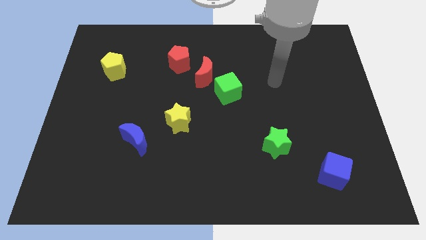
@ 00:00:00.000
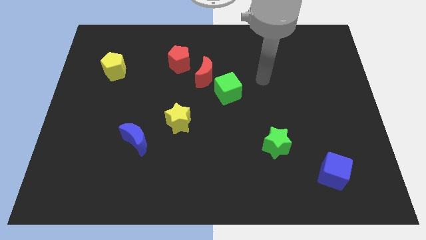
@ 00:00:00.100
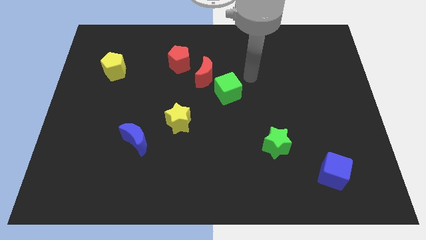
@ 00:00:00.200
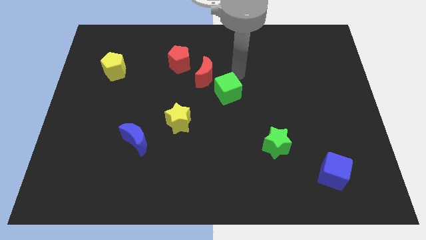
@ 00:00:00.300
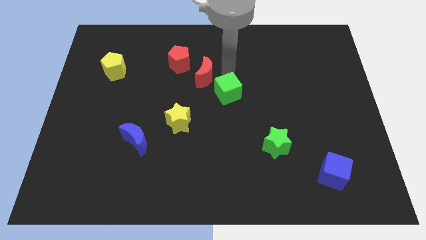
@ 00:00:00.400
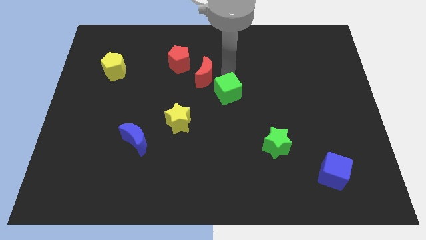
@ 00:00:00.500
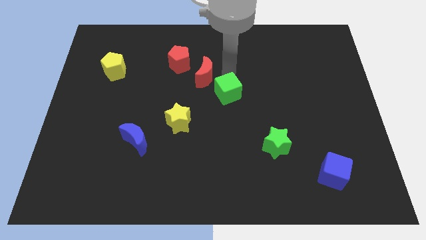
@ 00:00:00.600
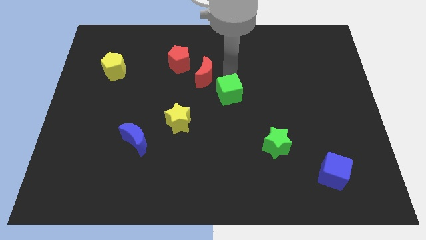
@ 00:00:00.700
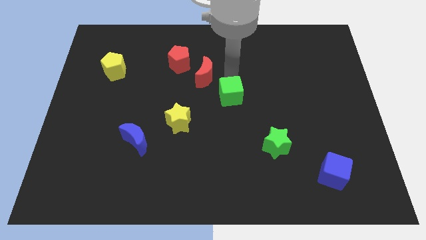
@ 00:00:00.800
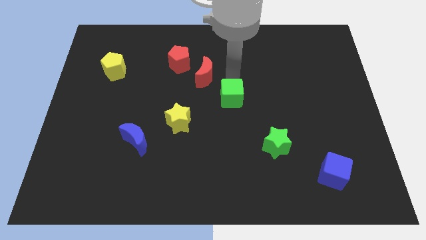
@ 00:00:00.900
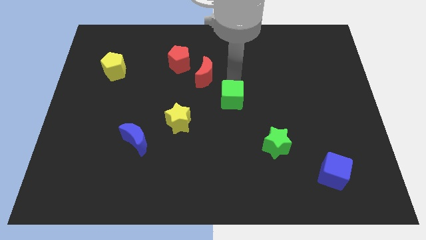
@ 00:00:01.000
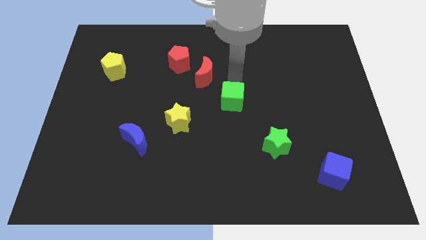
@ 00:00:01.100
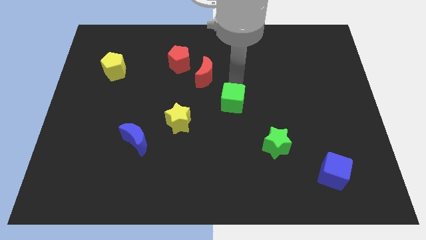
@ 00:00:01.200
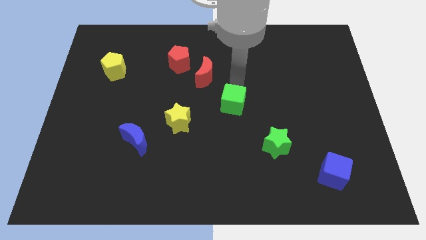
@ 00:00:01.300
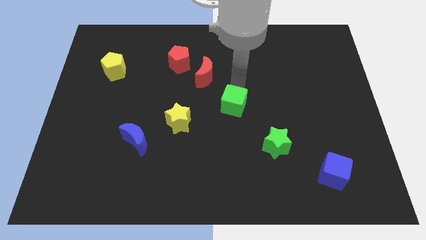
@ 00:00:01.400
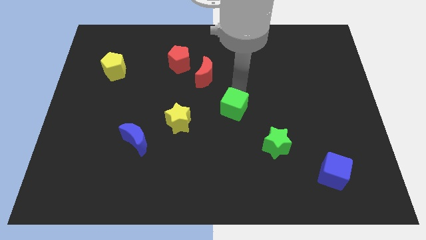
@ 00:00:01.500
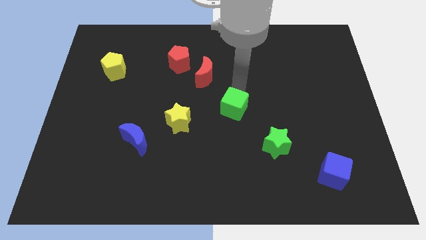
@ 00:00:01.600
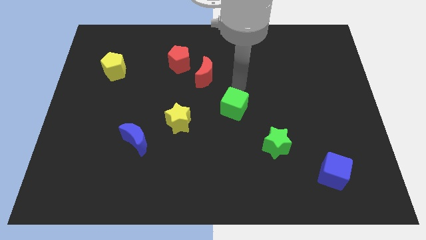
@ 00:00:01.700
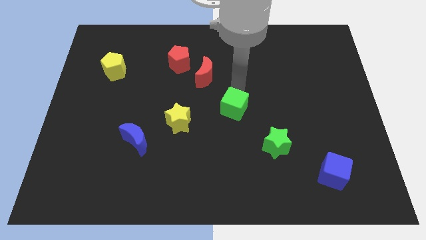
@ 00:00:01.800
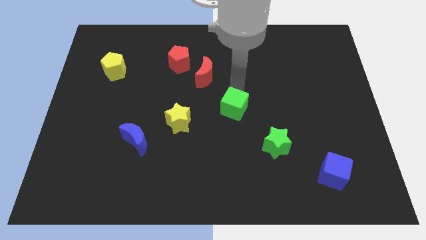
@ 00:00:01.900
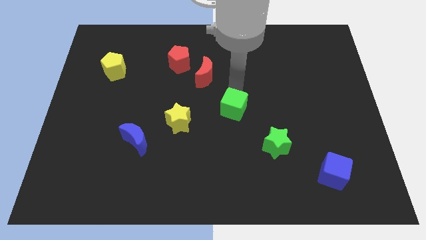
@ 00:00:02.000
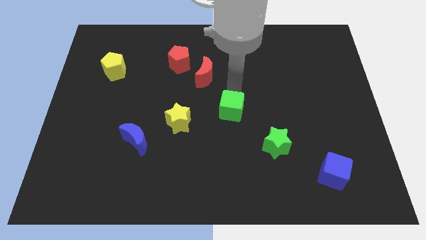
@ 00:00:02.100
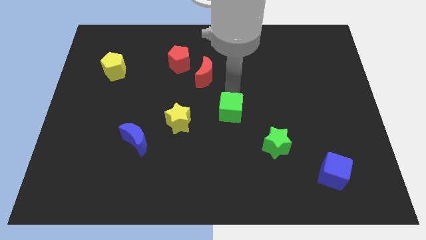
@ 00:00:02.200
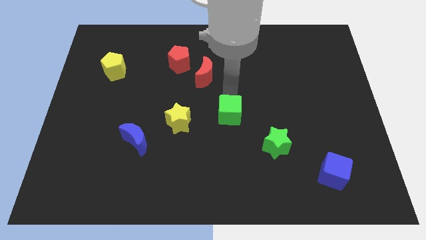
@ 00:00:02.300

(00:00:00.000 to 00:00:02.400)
move the green cube downwards a little bit

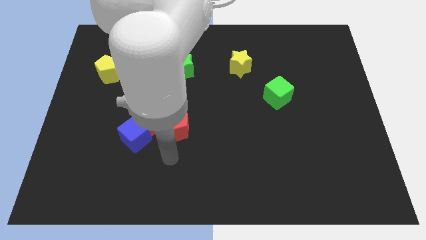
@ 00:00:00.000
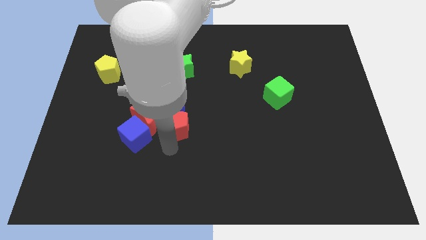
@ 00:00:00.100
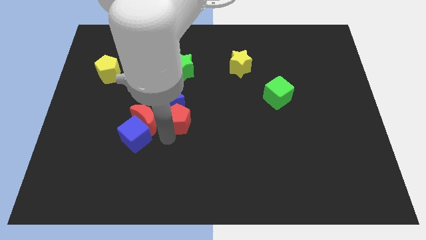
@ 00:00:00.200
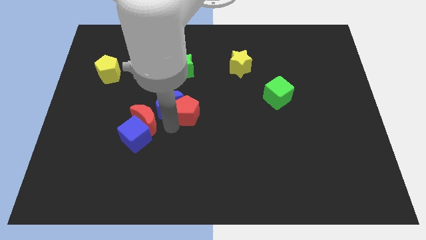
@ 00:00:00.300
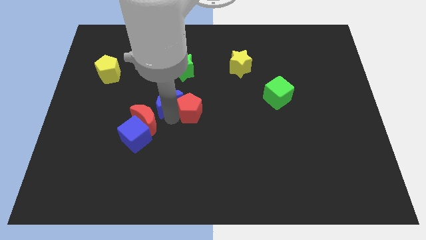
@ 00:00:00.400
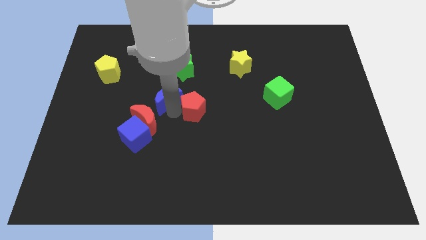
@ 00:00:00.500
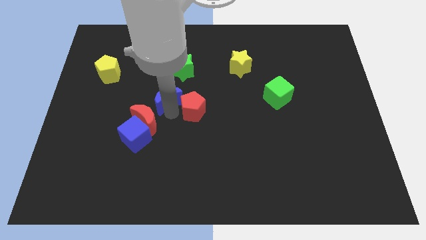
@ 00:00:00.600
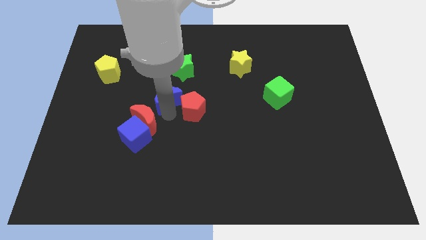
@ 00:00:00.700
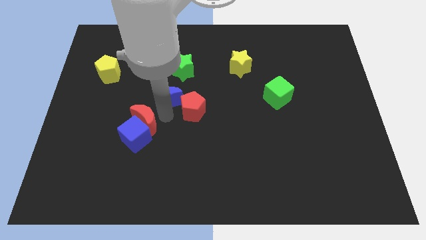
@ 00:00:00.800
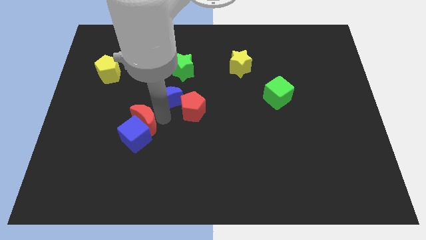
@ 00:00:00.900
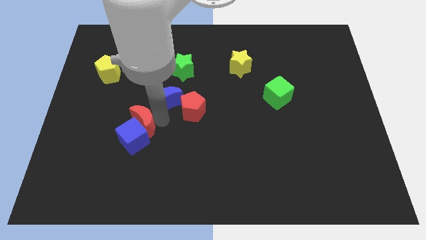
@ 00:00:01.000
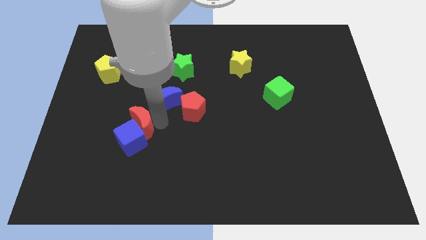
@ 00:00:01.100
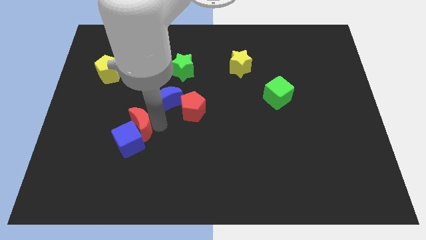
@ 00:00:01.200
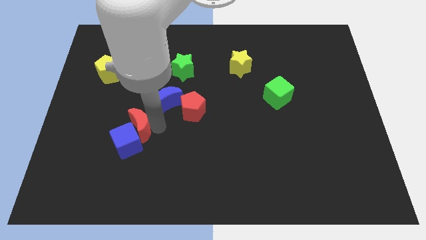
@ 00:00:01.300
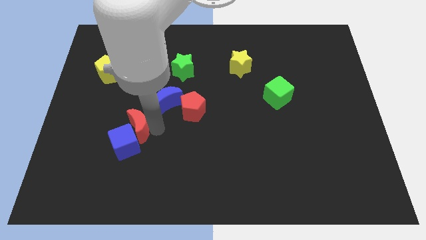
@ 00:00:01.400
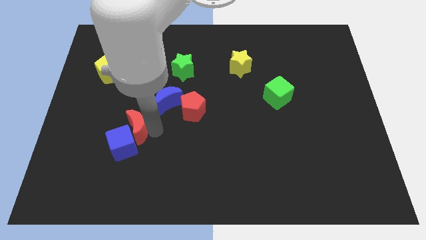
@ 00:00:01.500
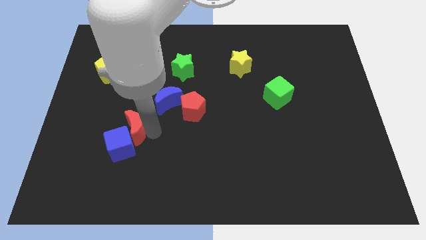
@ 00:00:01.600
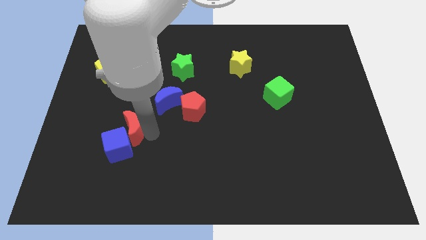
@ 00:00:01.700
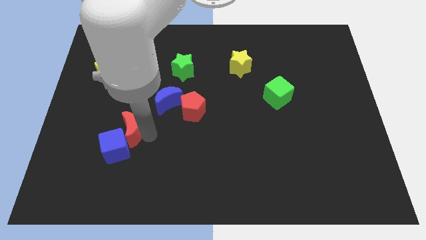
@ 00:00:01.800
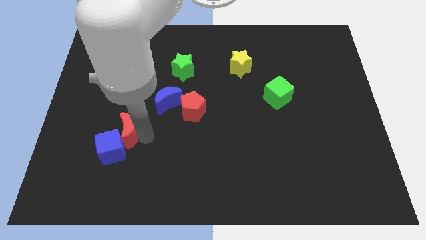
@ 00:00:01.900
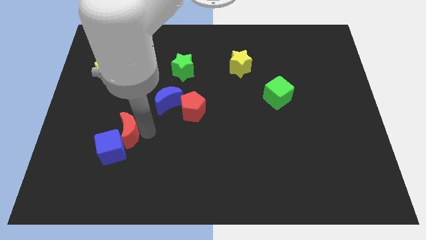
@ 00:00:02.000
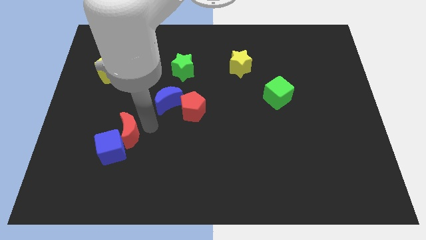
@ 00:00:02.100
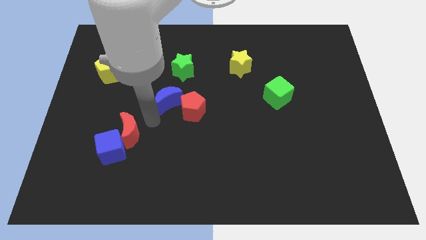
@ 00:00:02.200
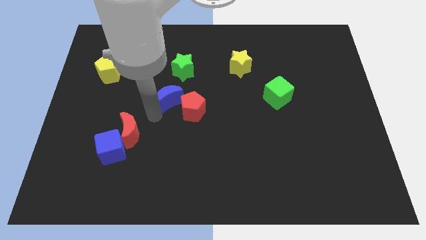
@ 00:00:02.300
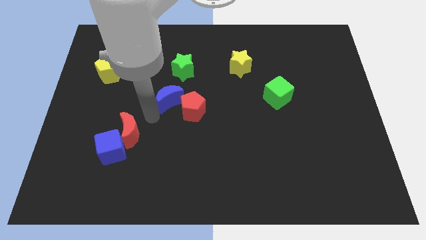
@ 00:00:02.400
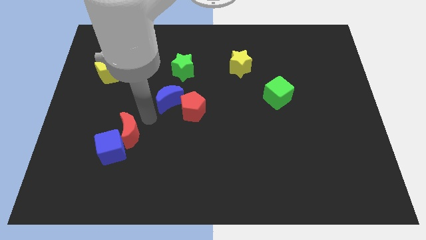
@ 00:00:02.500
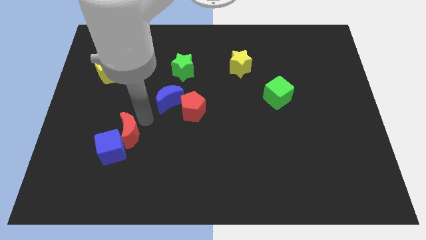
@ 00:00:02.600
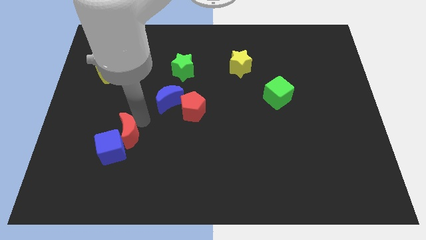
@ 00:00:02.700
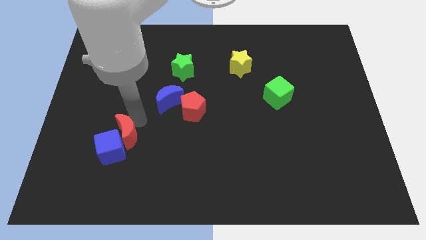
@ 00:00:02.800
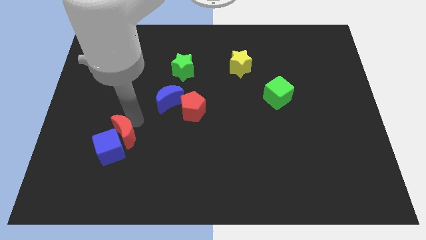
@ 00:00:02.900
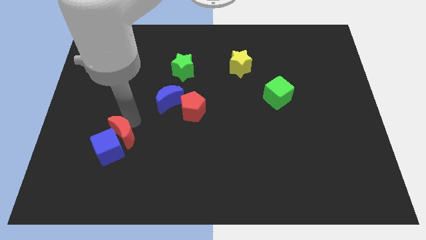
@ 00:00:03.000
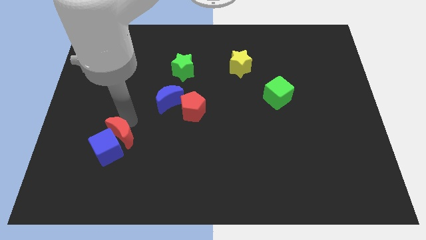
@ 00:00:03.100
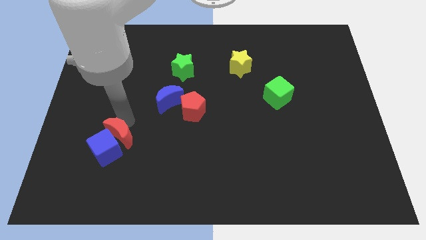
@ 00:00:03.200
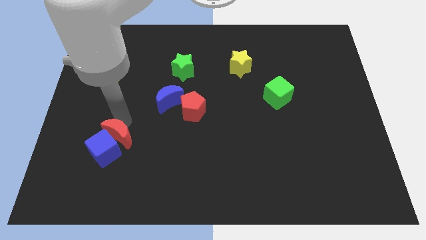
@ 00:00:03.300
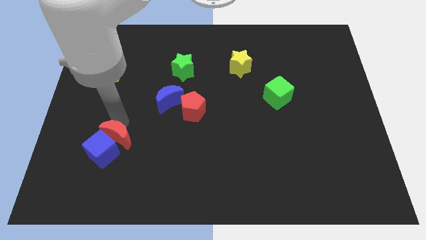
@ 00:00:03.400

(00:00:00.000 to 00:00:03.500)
slide the red moon a little bit diagonally downwards and left

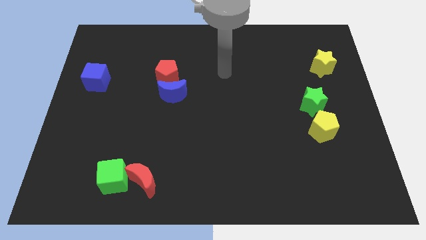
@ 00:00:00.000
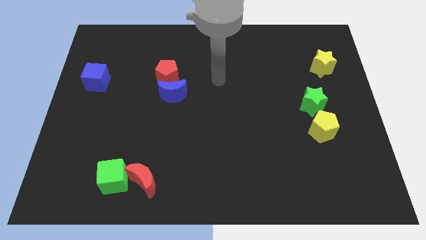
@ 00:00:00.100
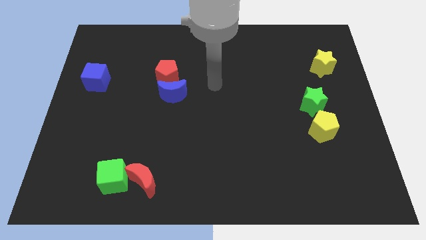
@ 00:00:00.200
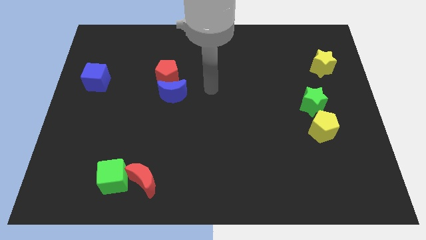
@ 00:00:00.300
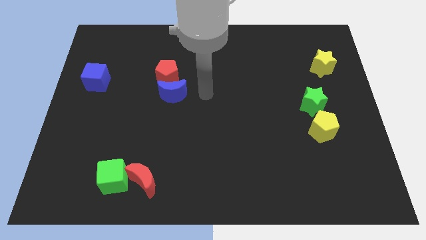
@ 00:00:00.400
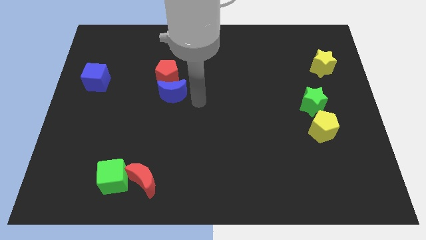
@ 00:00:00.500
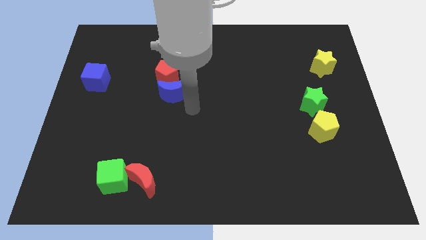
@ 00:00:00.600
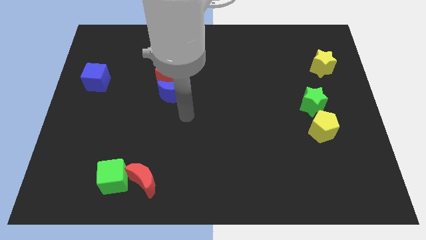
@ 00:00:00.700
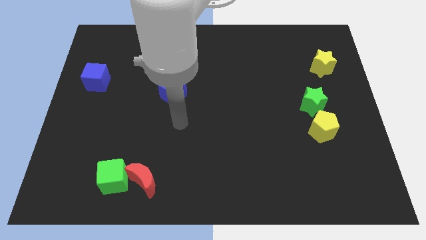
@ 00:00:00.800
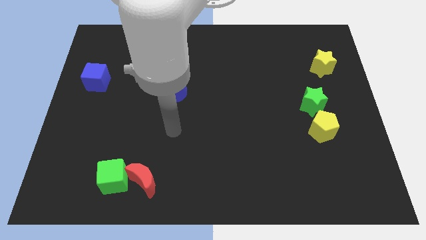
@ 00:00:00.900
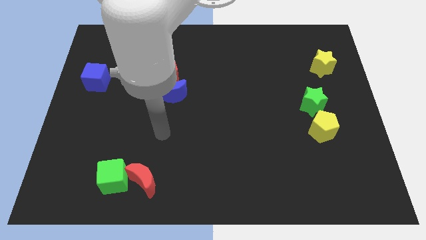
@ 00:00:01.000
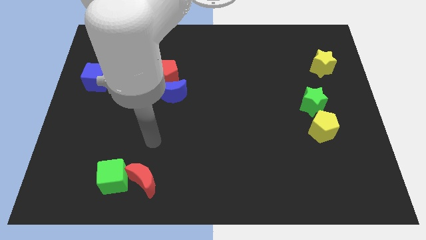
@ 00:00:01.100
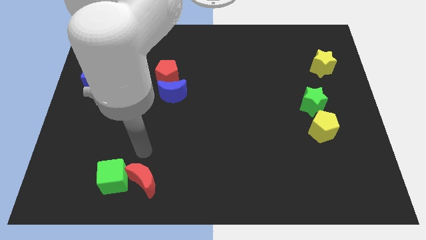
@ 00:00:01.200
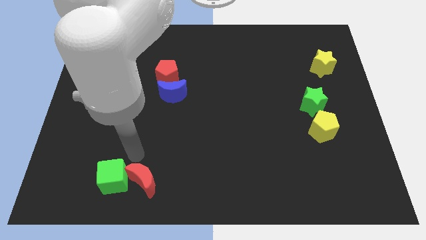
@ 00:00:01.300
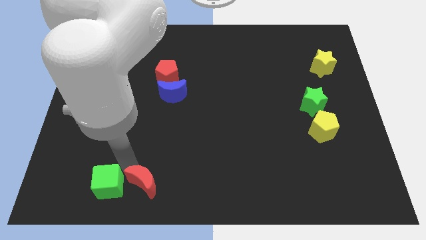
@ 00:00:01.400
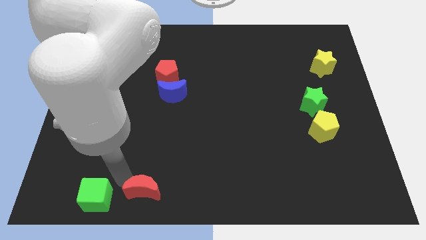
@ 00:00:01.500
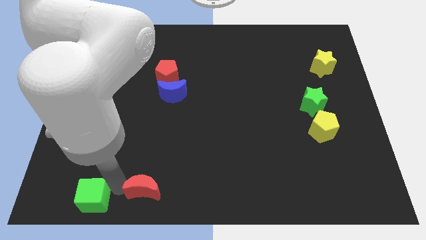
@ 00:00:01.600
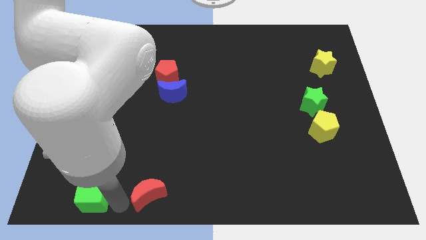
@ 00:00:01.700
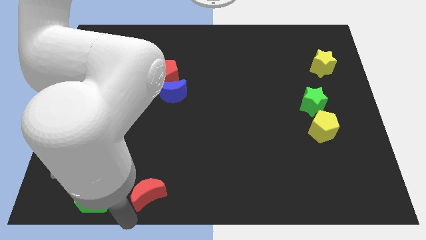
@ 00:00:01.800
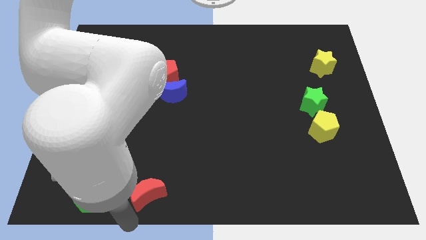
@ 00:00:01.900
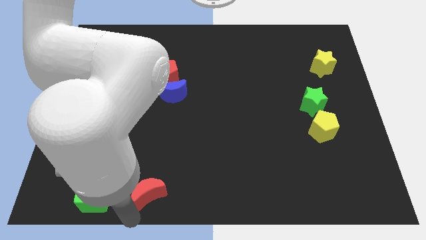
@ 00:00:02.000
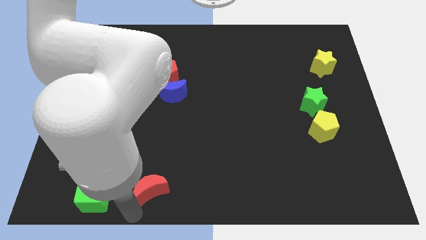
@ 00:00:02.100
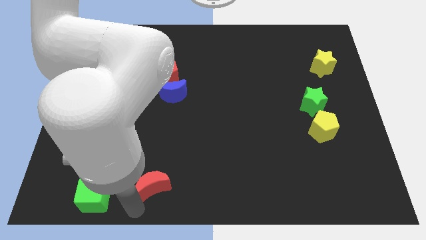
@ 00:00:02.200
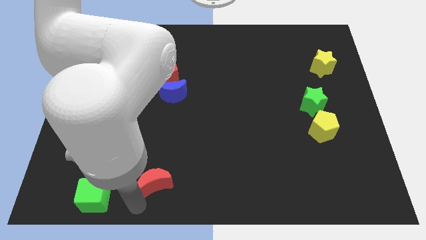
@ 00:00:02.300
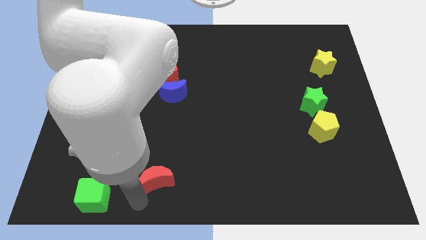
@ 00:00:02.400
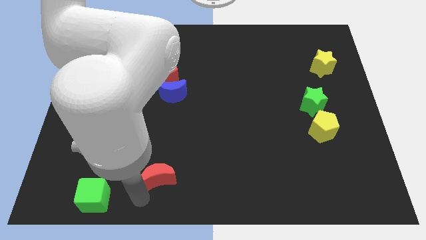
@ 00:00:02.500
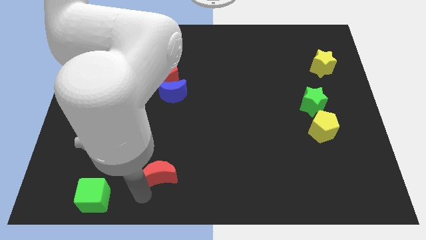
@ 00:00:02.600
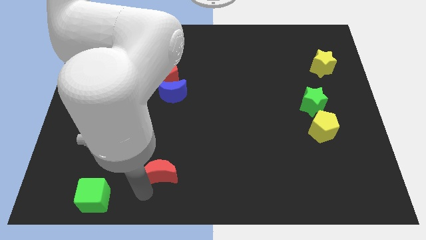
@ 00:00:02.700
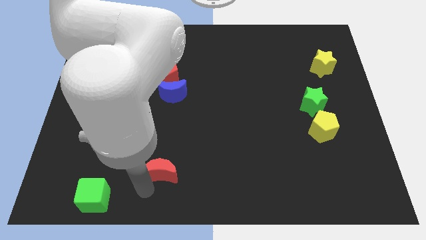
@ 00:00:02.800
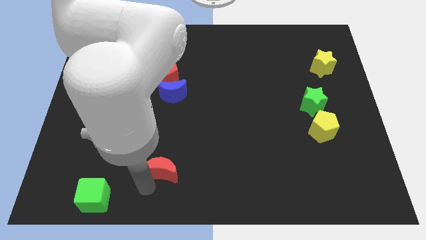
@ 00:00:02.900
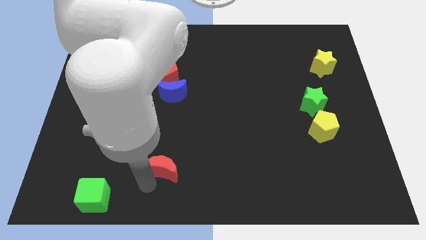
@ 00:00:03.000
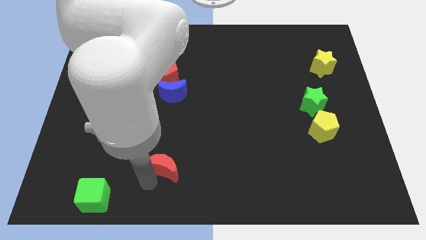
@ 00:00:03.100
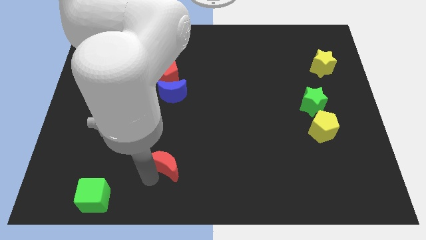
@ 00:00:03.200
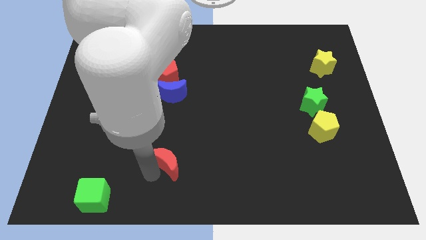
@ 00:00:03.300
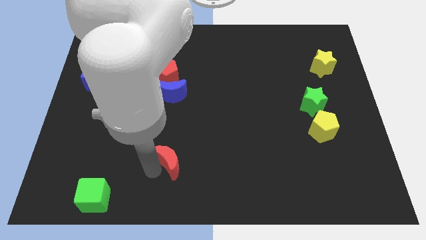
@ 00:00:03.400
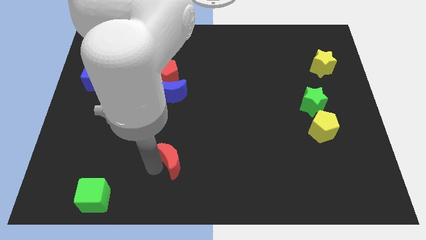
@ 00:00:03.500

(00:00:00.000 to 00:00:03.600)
push the red moon somewhat upwards and right diagonally
